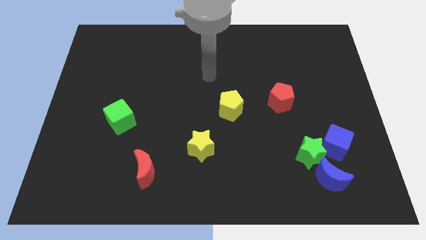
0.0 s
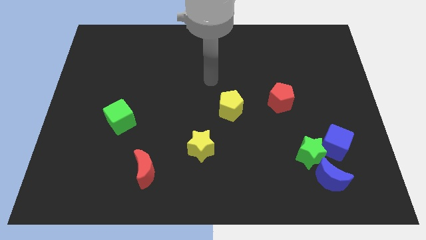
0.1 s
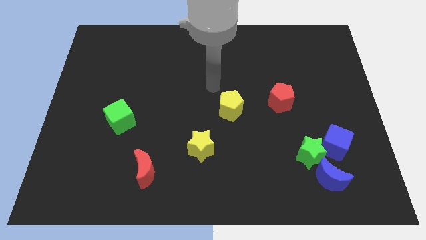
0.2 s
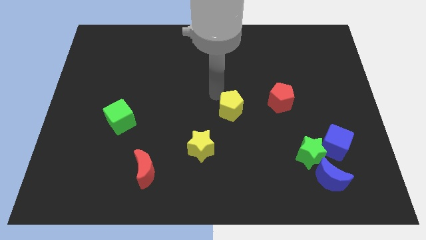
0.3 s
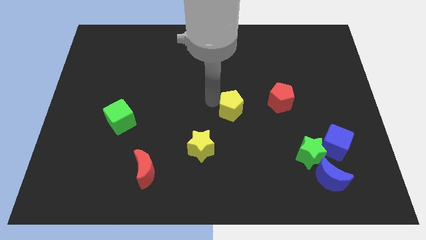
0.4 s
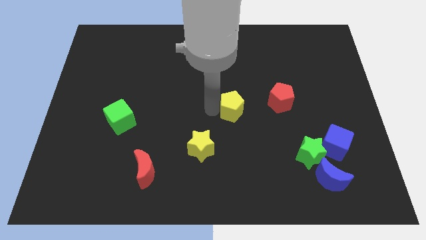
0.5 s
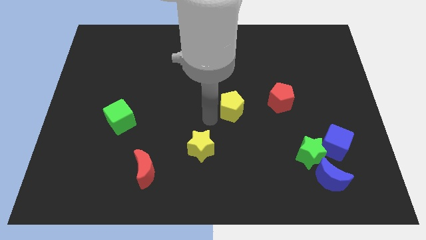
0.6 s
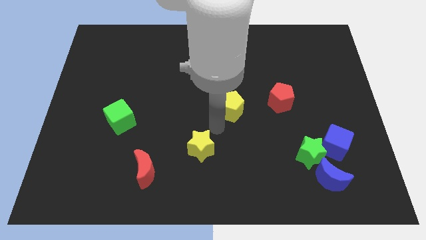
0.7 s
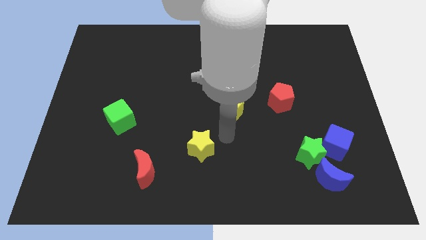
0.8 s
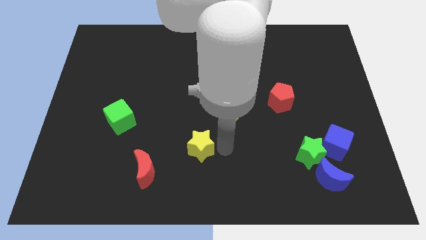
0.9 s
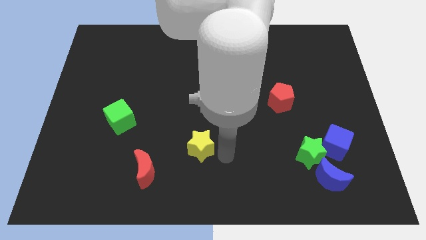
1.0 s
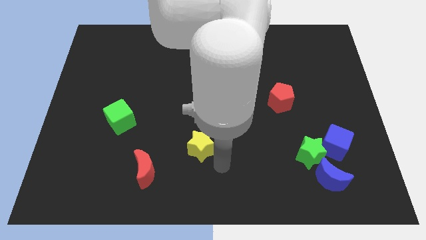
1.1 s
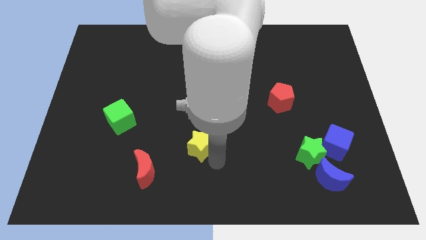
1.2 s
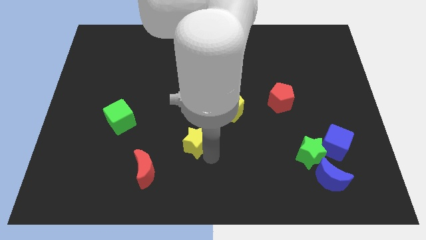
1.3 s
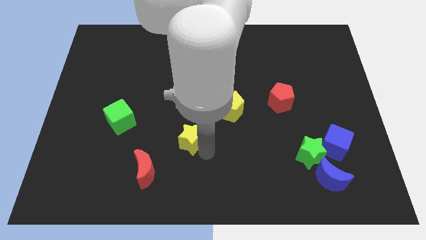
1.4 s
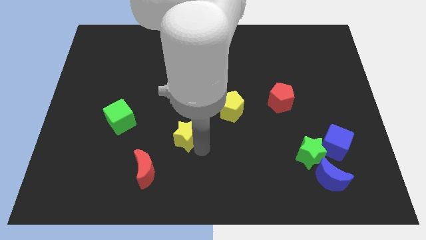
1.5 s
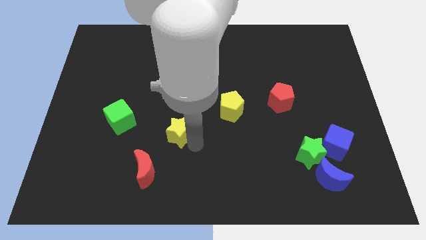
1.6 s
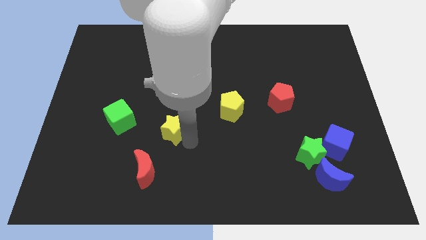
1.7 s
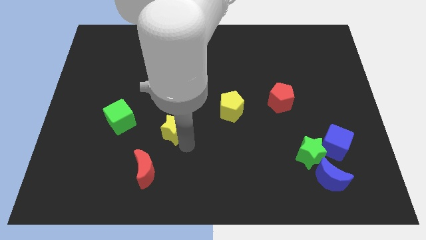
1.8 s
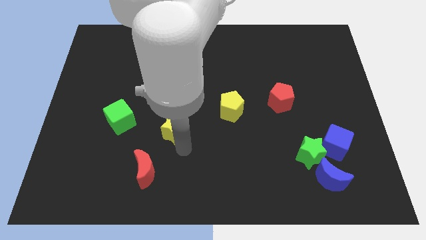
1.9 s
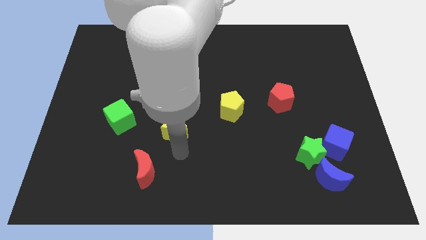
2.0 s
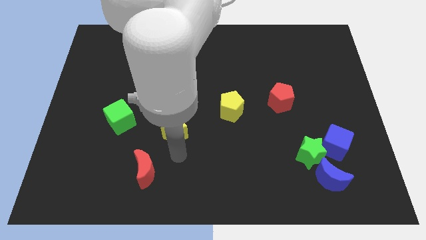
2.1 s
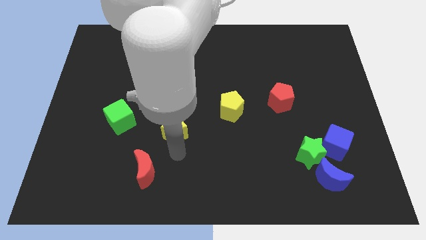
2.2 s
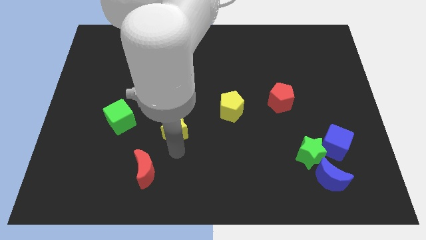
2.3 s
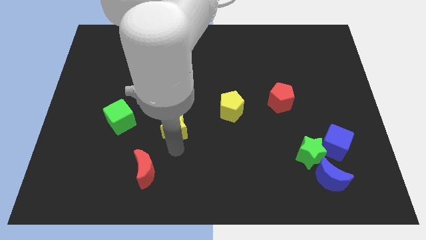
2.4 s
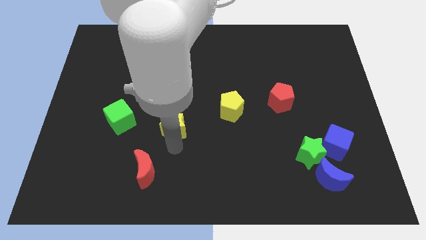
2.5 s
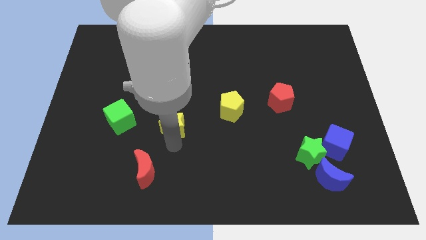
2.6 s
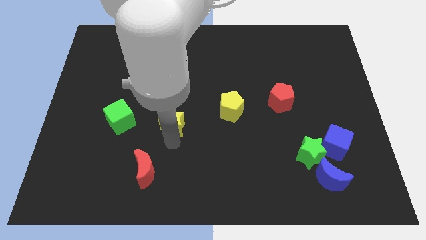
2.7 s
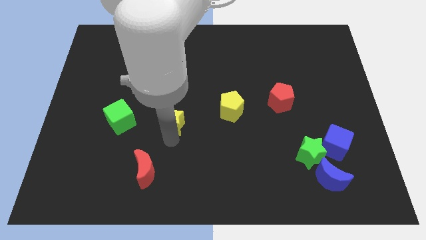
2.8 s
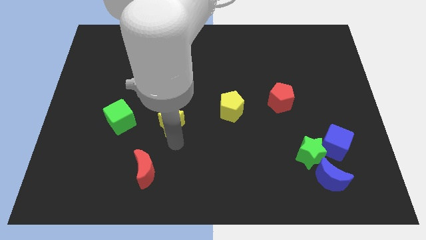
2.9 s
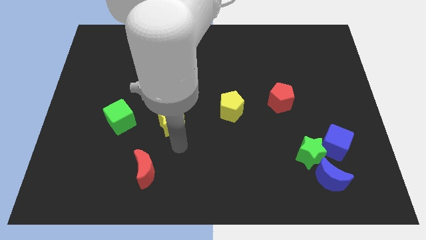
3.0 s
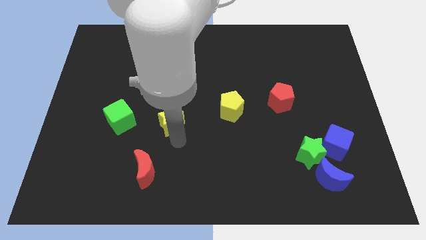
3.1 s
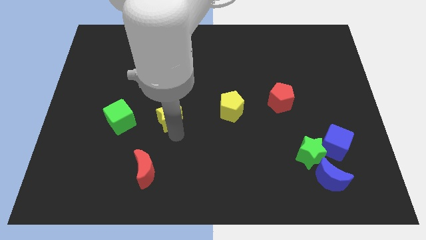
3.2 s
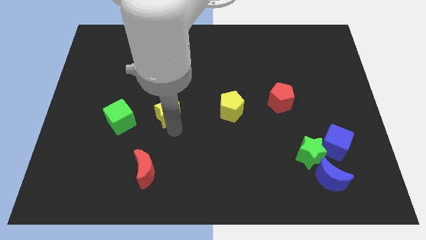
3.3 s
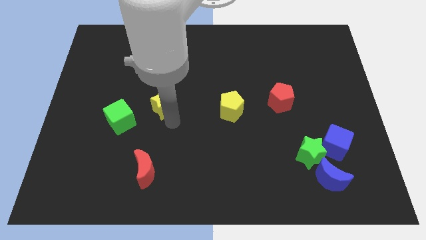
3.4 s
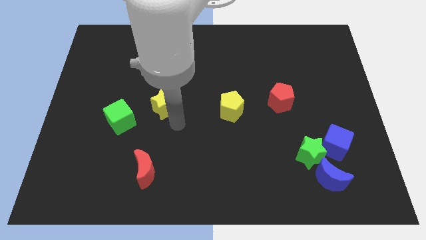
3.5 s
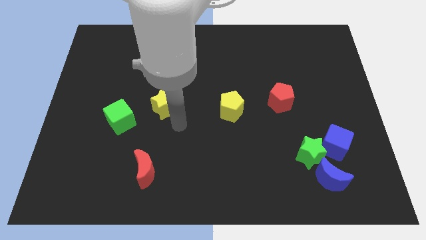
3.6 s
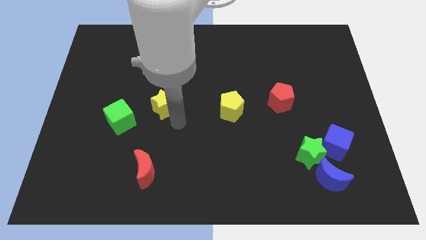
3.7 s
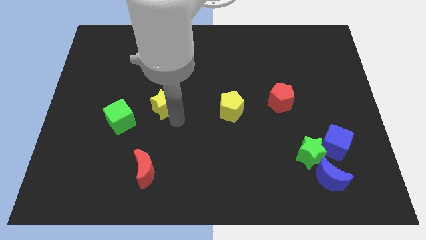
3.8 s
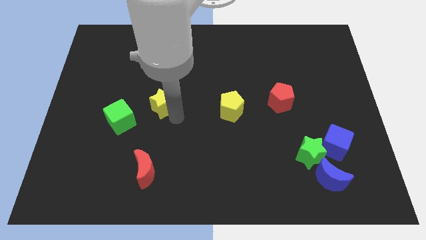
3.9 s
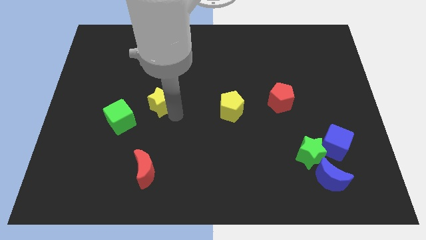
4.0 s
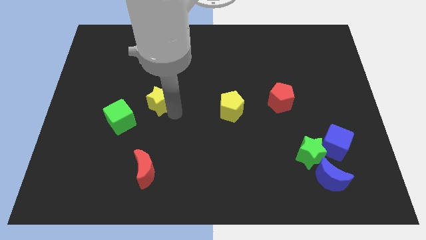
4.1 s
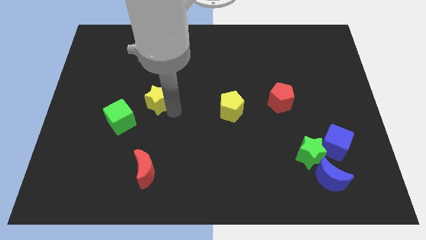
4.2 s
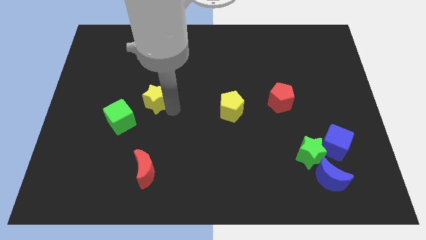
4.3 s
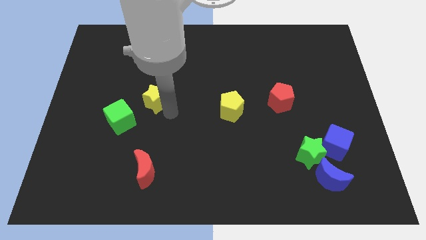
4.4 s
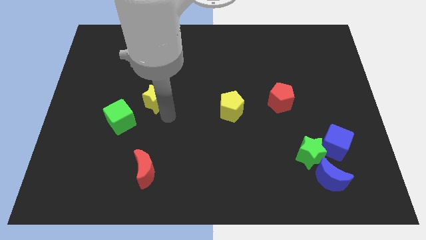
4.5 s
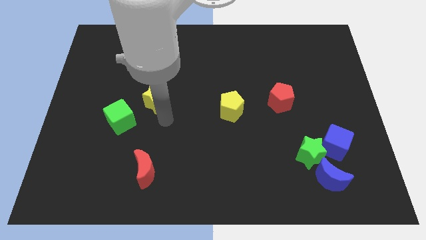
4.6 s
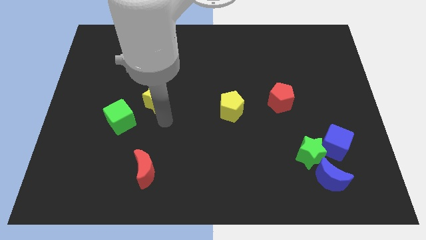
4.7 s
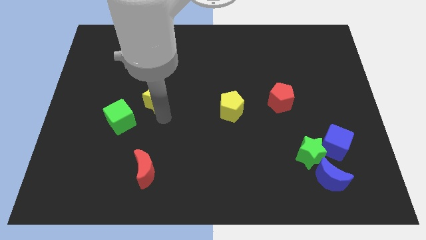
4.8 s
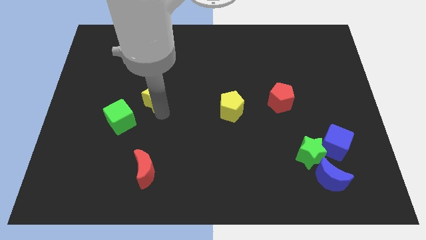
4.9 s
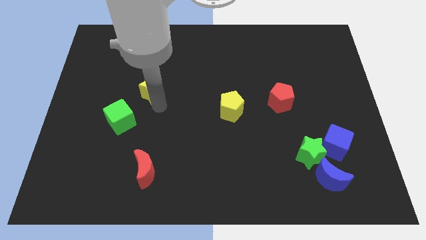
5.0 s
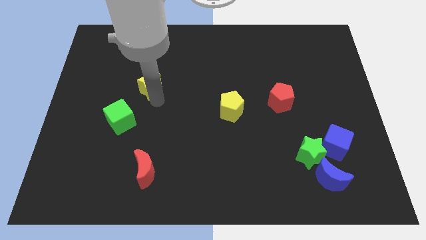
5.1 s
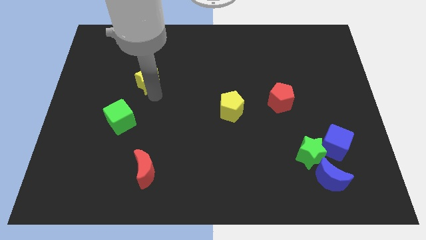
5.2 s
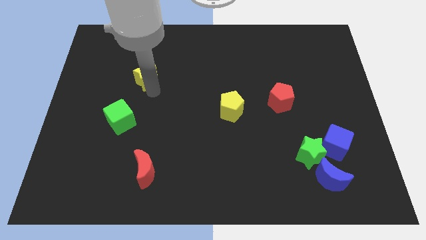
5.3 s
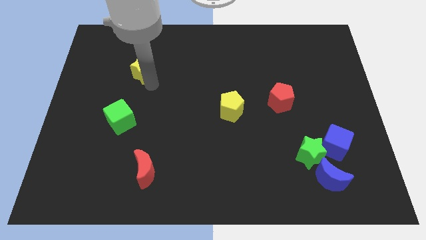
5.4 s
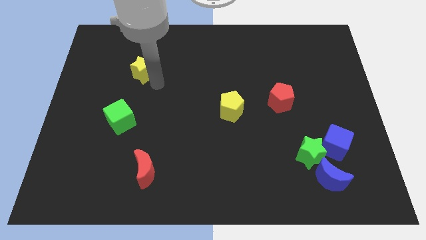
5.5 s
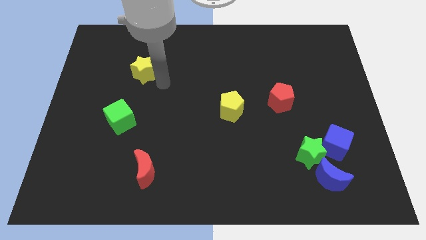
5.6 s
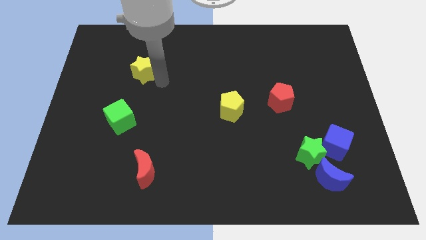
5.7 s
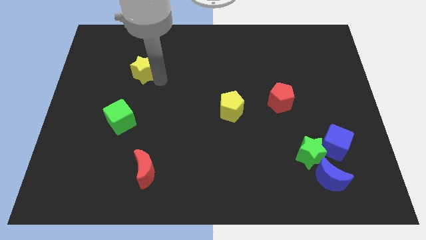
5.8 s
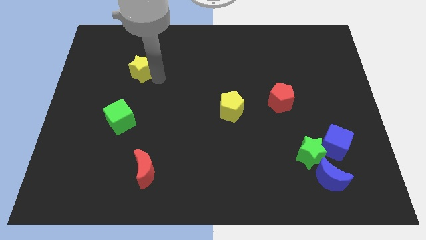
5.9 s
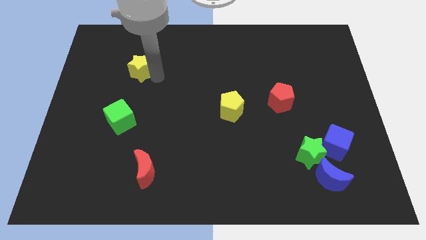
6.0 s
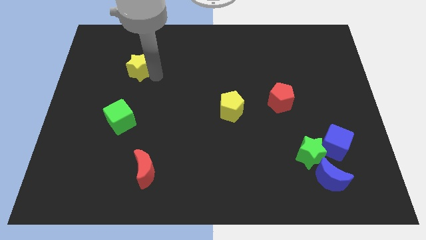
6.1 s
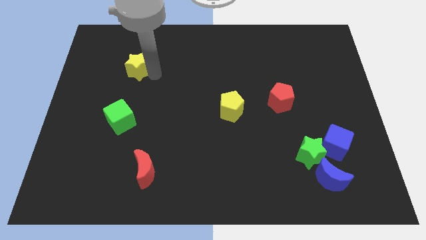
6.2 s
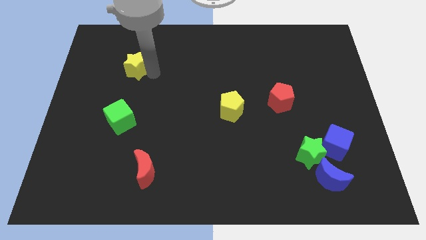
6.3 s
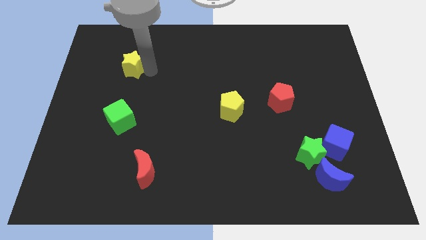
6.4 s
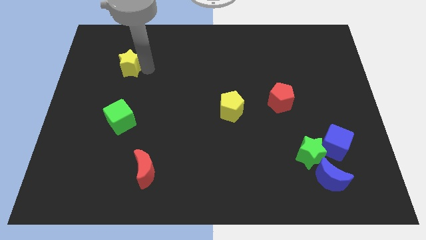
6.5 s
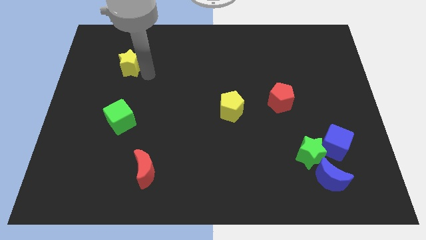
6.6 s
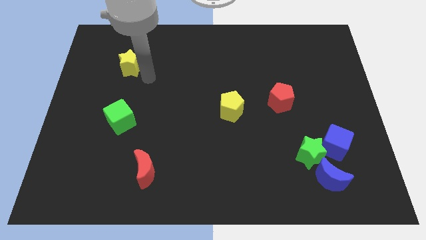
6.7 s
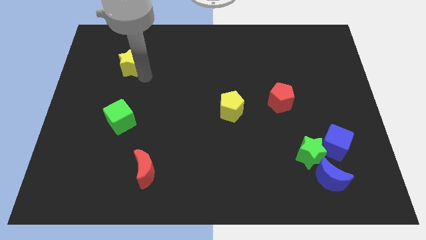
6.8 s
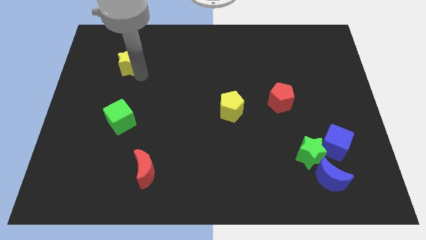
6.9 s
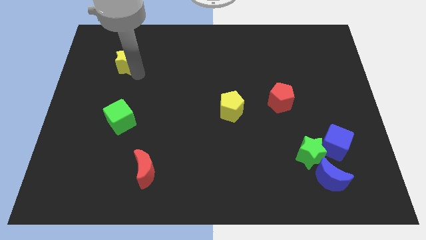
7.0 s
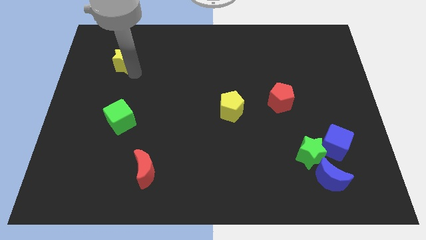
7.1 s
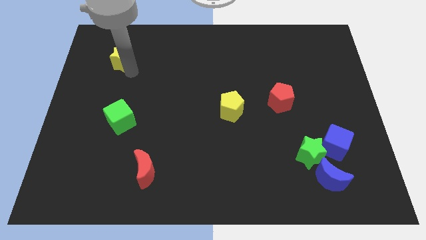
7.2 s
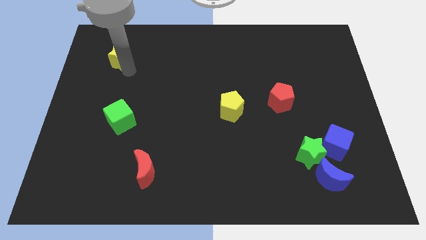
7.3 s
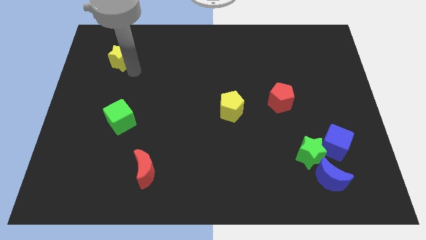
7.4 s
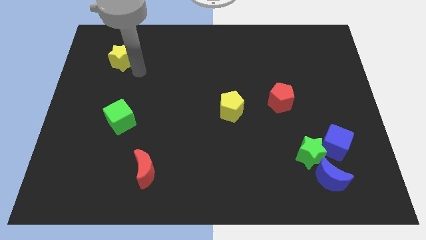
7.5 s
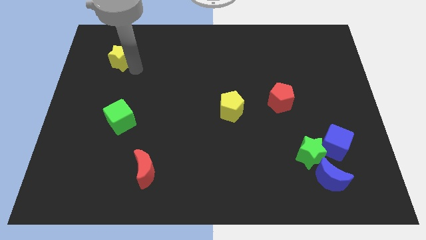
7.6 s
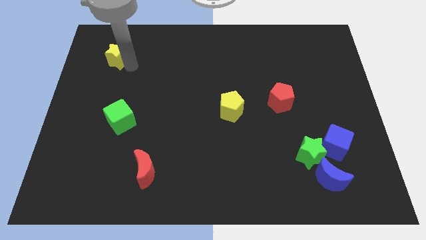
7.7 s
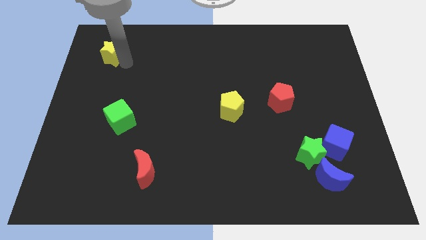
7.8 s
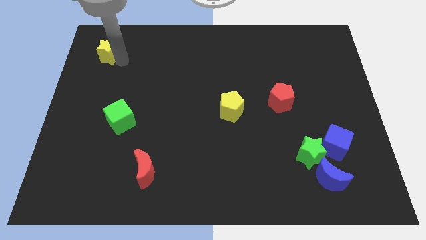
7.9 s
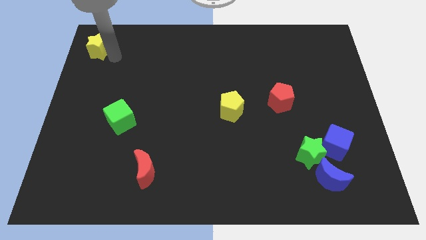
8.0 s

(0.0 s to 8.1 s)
push the yellow star to the top left corner
